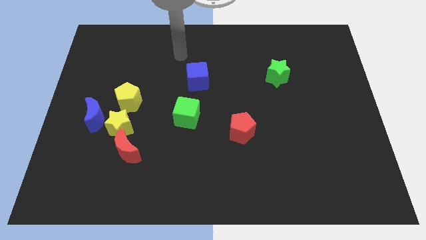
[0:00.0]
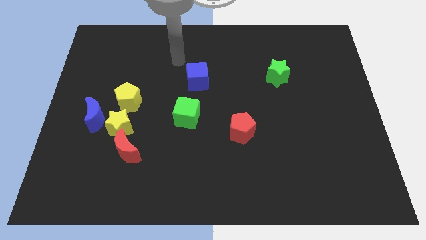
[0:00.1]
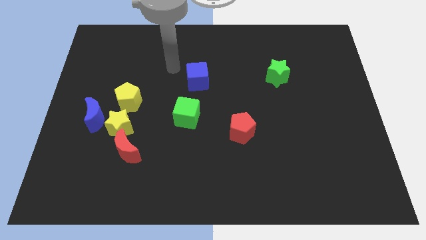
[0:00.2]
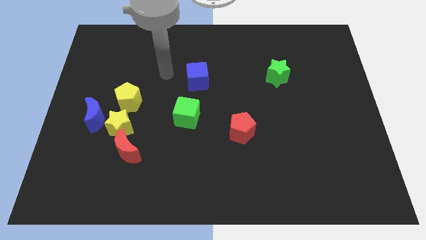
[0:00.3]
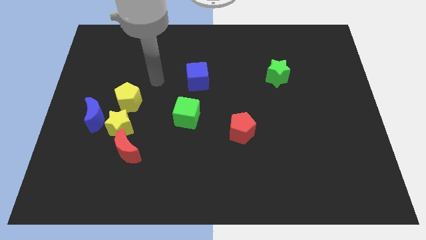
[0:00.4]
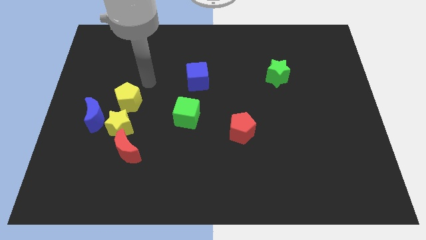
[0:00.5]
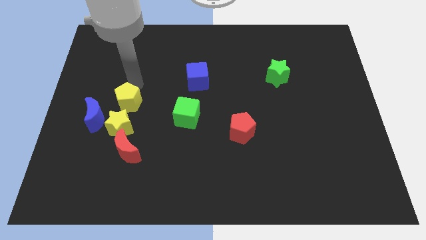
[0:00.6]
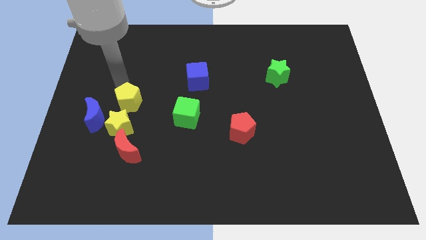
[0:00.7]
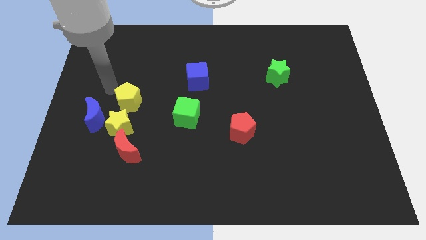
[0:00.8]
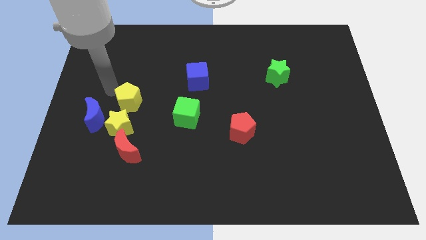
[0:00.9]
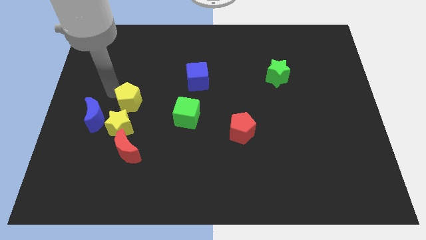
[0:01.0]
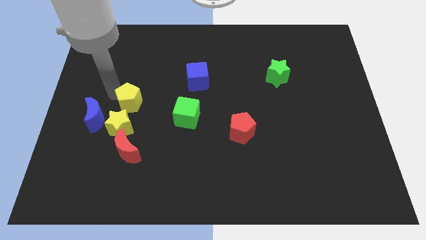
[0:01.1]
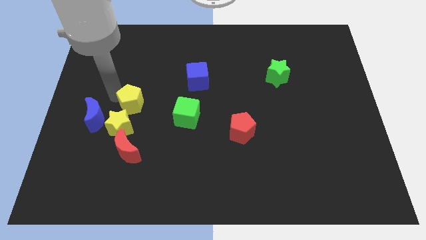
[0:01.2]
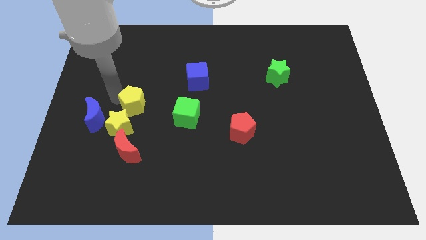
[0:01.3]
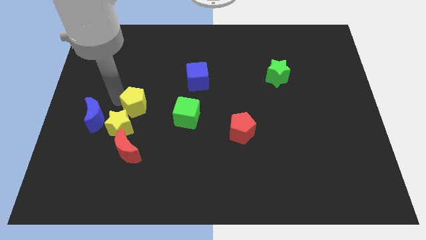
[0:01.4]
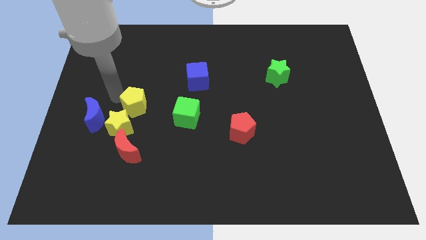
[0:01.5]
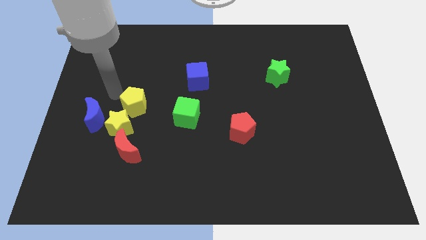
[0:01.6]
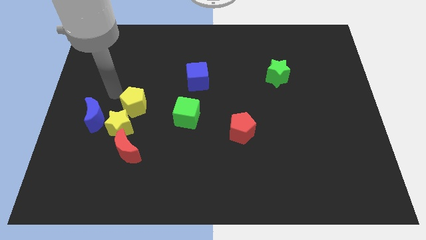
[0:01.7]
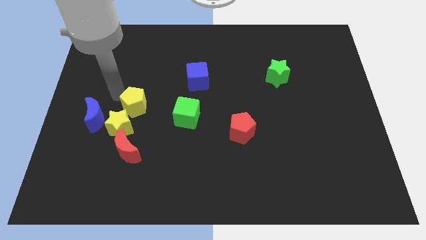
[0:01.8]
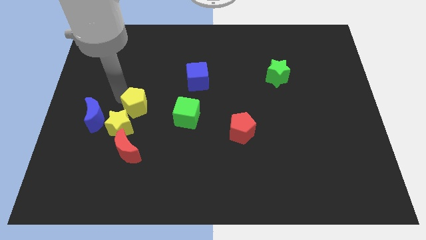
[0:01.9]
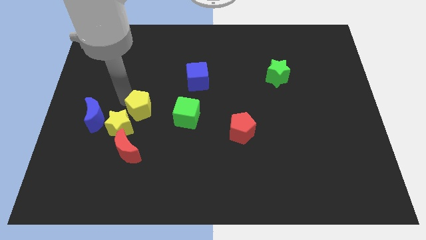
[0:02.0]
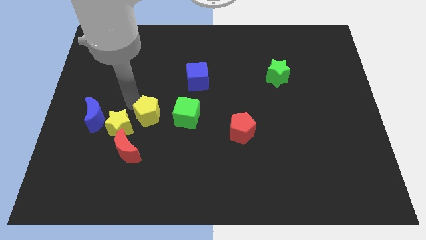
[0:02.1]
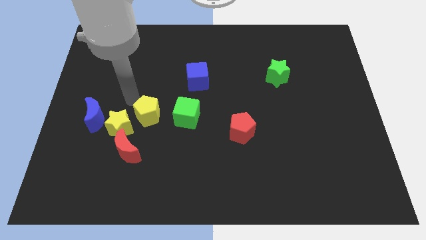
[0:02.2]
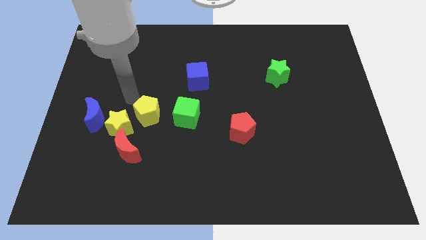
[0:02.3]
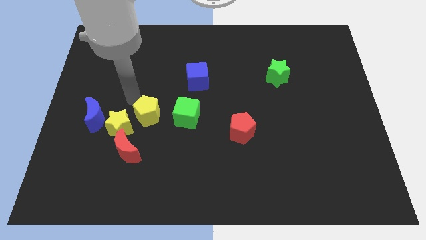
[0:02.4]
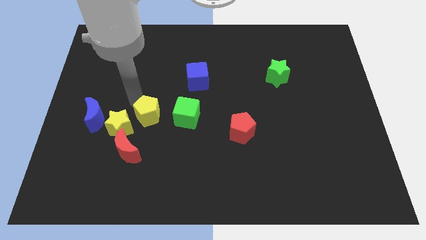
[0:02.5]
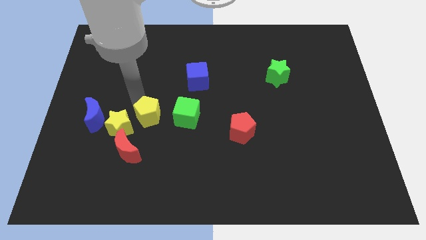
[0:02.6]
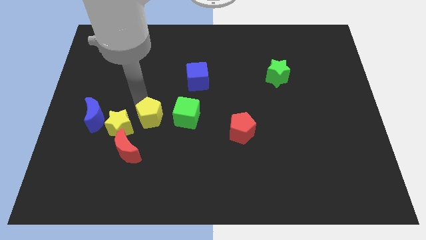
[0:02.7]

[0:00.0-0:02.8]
slightly push the yellow pentagon downwards and right

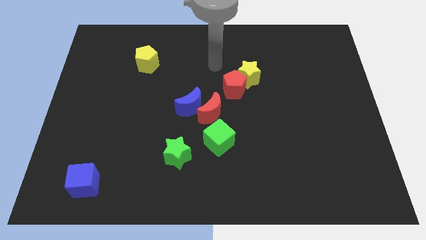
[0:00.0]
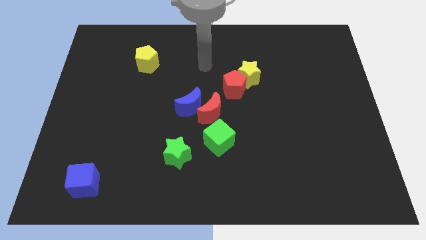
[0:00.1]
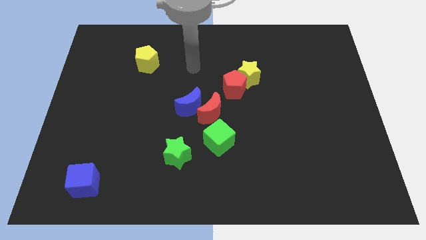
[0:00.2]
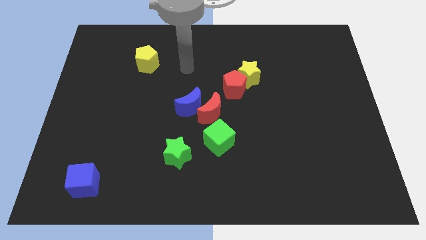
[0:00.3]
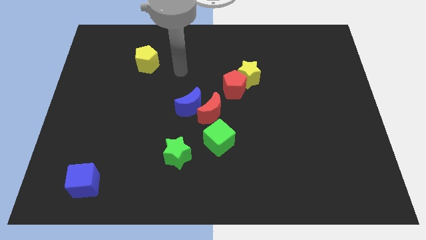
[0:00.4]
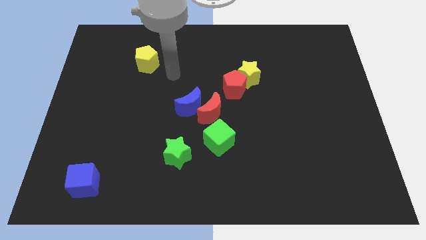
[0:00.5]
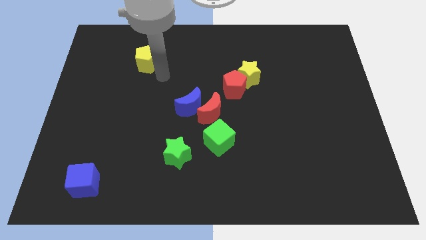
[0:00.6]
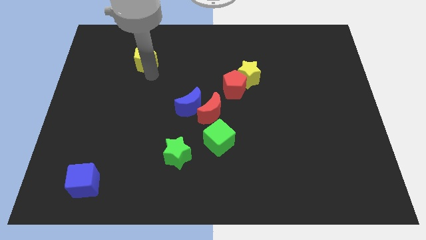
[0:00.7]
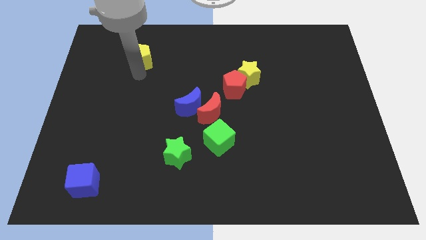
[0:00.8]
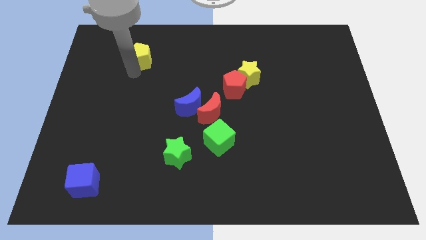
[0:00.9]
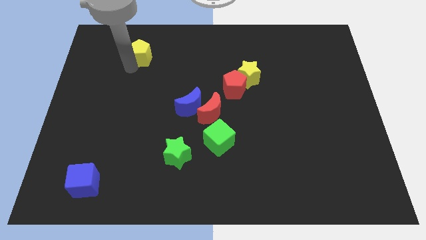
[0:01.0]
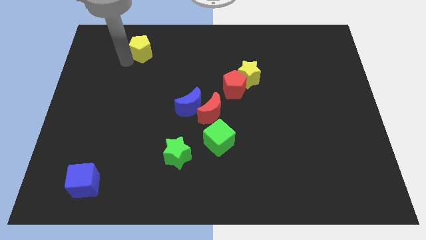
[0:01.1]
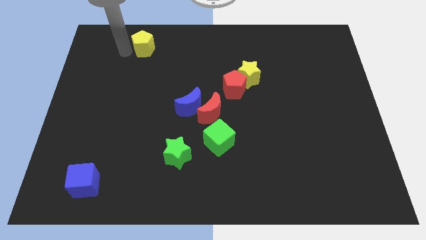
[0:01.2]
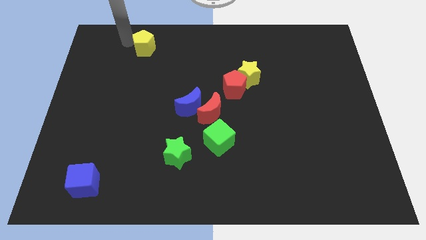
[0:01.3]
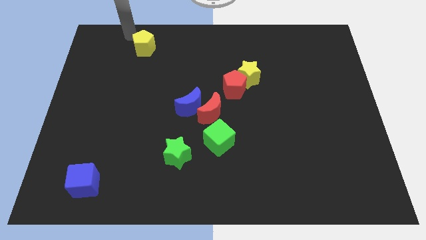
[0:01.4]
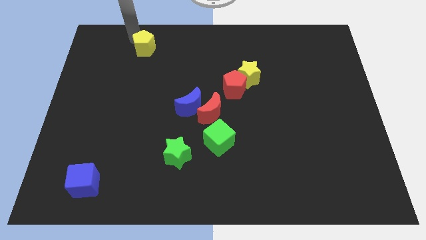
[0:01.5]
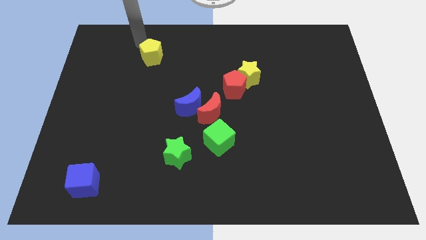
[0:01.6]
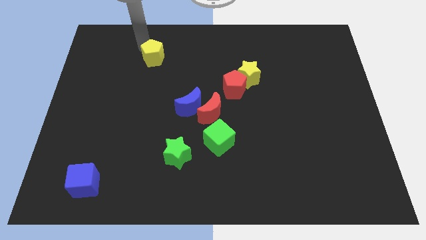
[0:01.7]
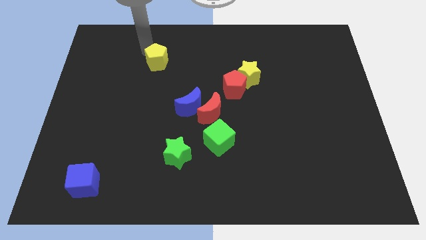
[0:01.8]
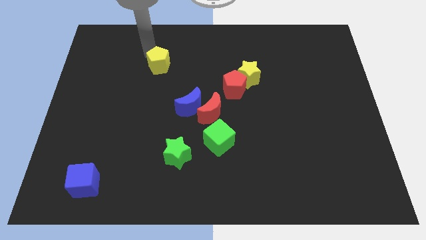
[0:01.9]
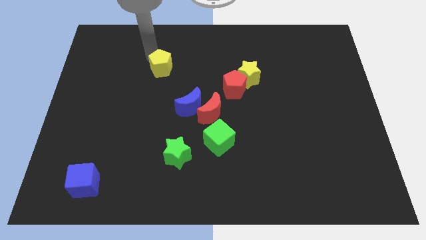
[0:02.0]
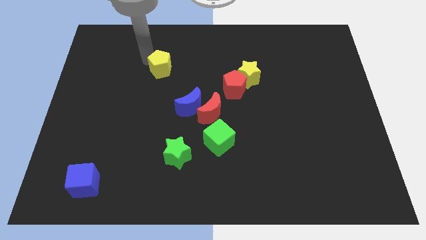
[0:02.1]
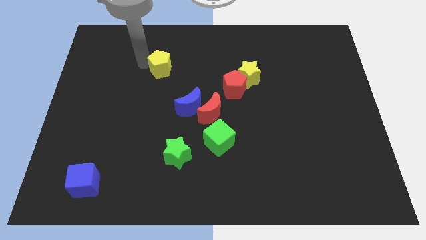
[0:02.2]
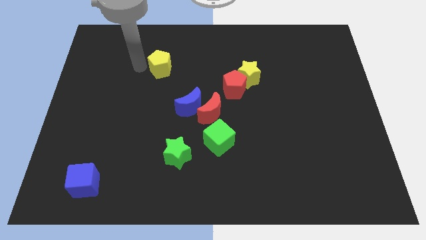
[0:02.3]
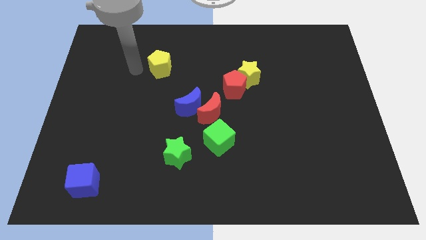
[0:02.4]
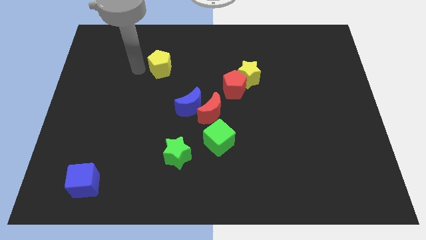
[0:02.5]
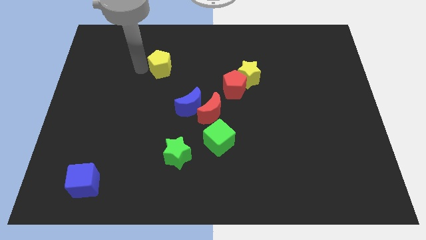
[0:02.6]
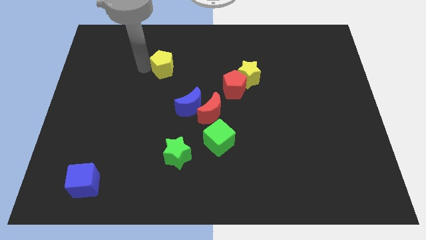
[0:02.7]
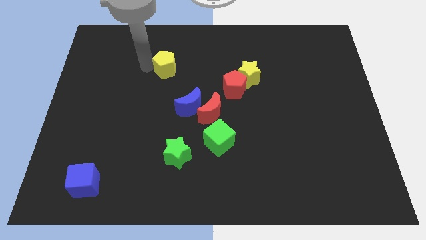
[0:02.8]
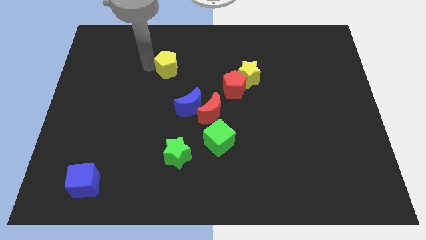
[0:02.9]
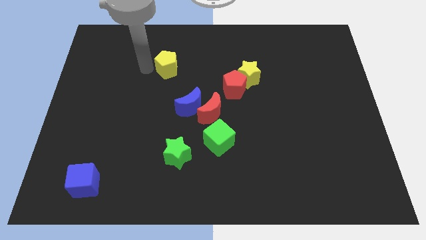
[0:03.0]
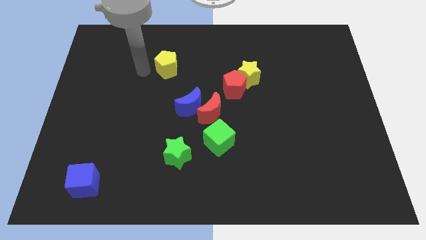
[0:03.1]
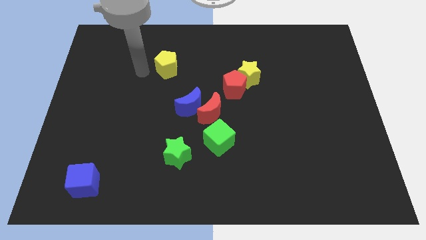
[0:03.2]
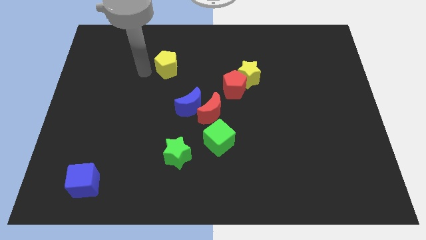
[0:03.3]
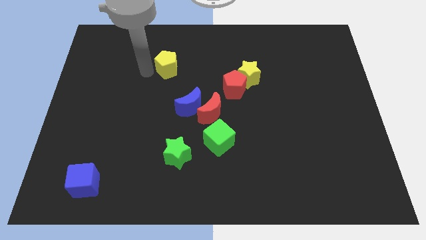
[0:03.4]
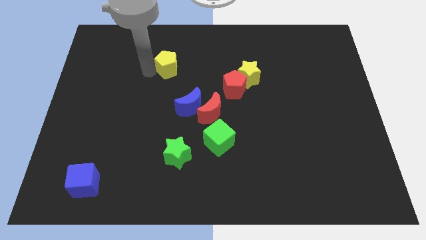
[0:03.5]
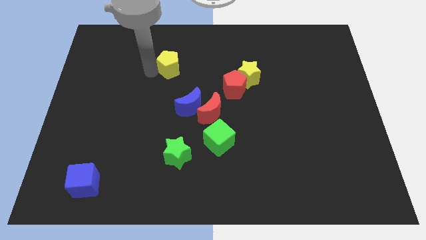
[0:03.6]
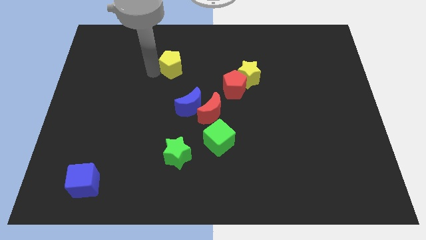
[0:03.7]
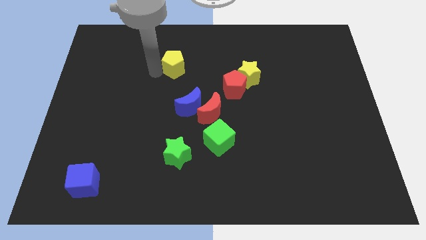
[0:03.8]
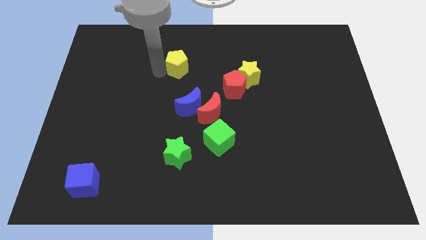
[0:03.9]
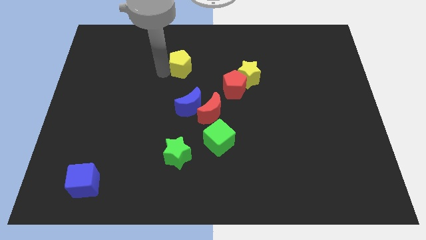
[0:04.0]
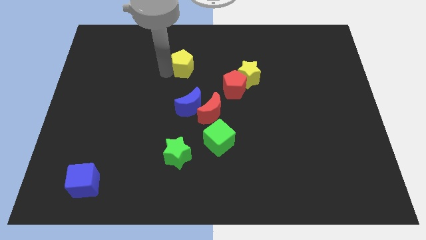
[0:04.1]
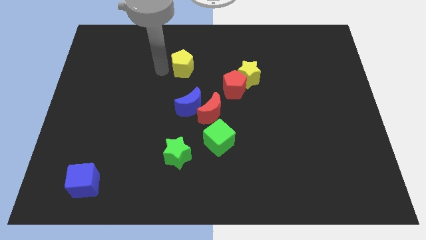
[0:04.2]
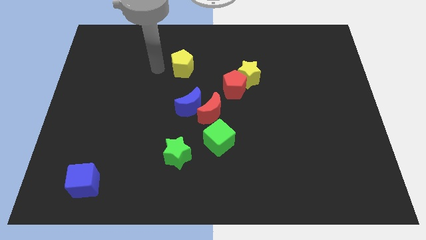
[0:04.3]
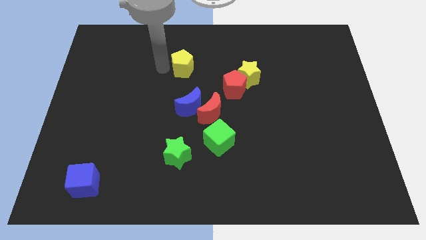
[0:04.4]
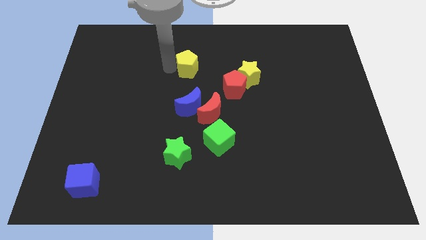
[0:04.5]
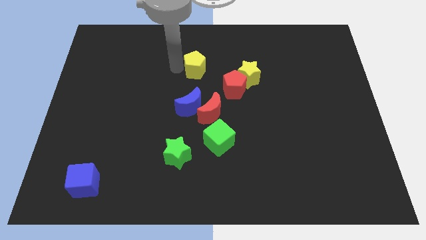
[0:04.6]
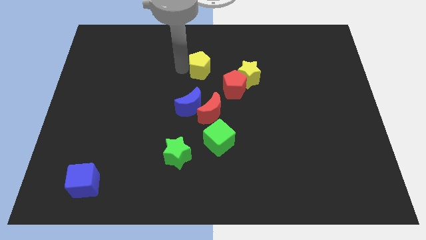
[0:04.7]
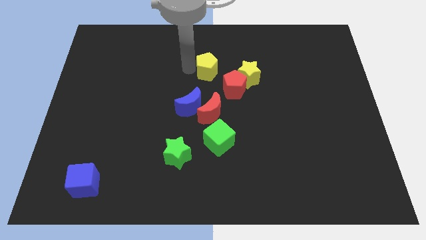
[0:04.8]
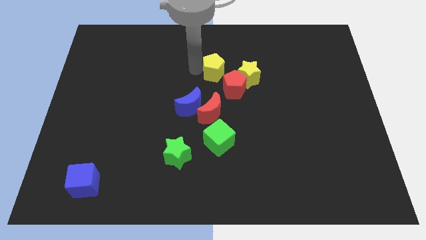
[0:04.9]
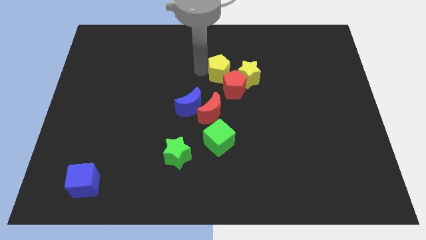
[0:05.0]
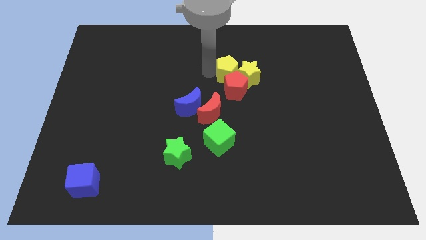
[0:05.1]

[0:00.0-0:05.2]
push the yellow pentagon to the right
